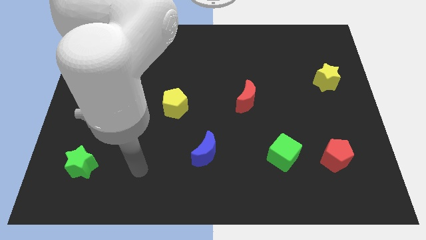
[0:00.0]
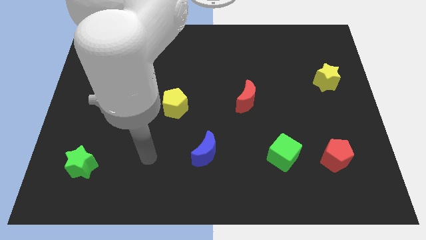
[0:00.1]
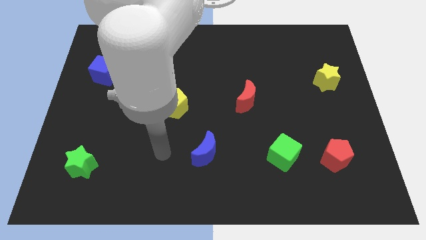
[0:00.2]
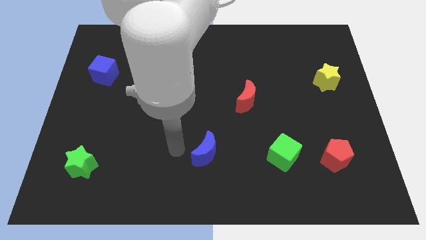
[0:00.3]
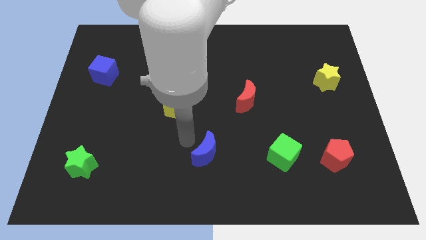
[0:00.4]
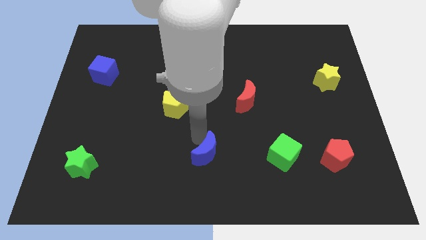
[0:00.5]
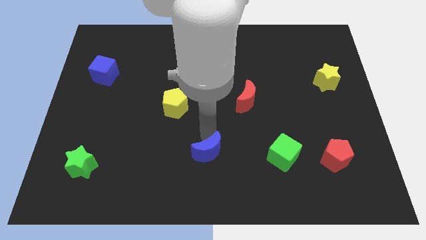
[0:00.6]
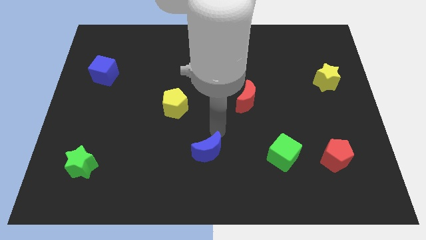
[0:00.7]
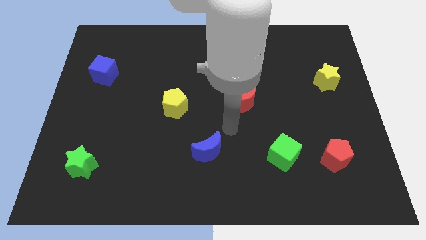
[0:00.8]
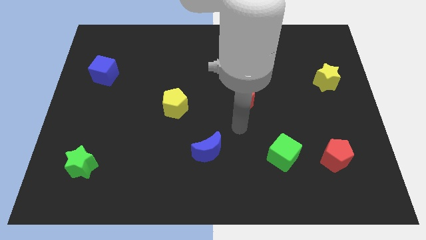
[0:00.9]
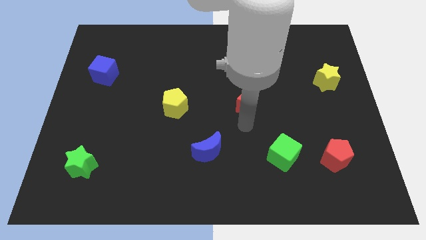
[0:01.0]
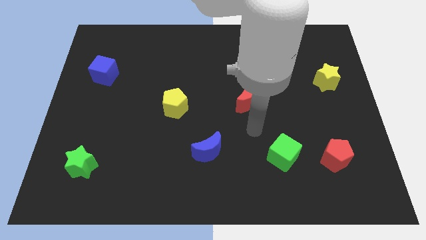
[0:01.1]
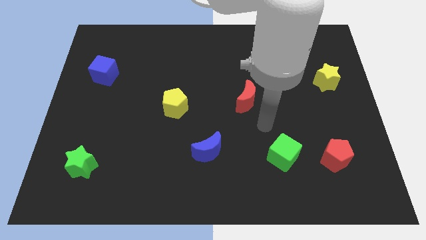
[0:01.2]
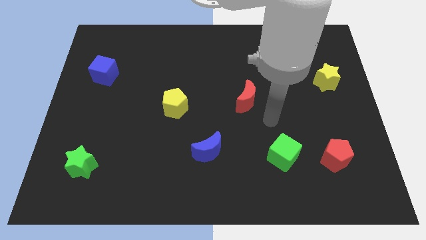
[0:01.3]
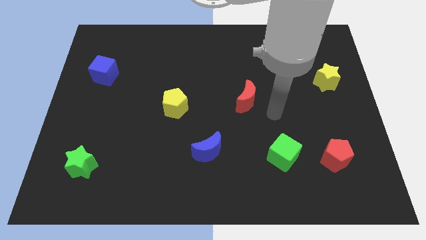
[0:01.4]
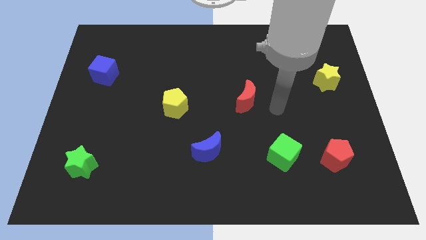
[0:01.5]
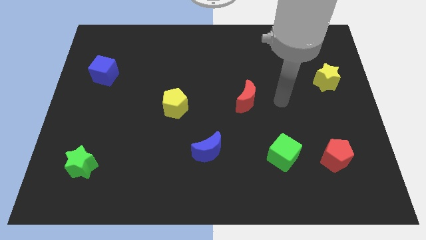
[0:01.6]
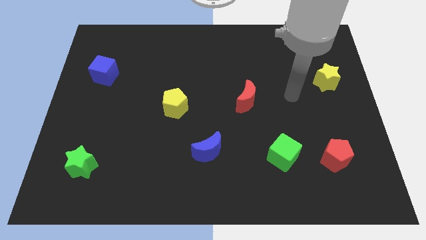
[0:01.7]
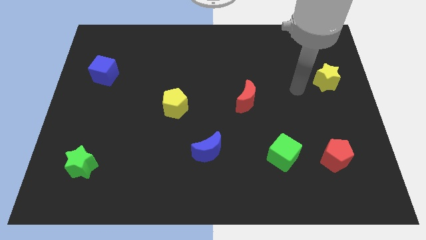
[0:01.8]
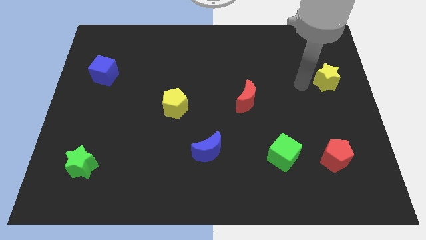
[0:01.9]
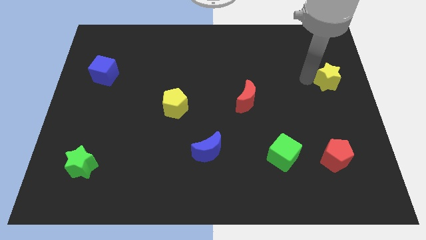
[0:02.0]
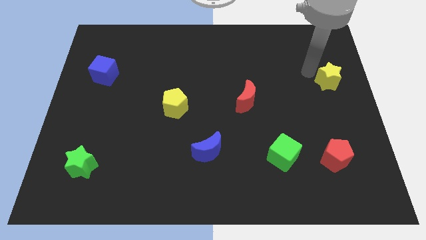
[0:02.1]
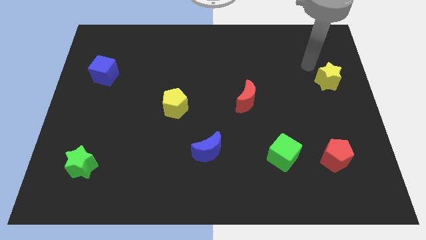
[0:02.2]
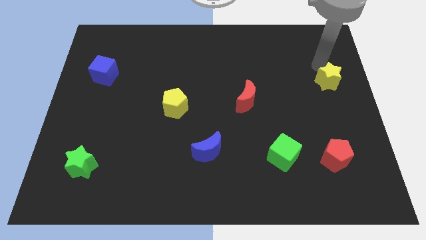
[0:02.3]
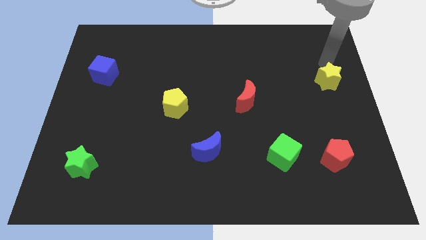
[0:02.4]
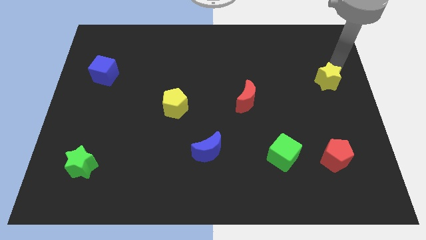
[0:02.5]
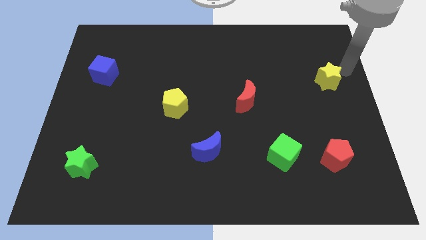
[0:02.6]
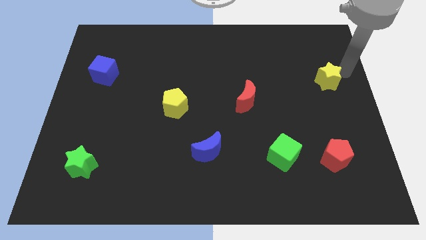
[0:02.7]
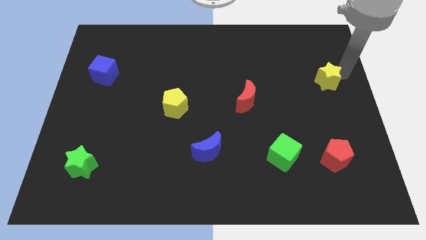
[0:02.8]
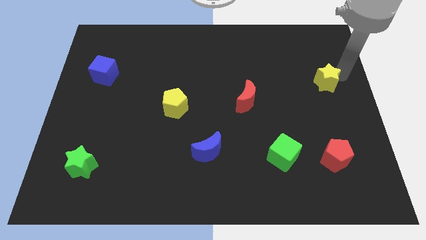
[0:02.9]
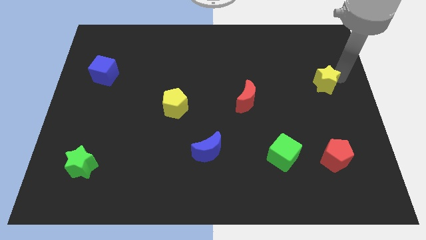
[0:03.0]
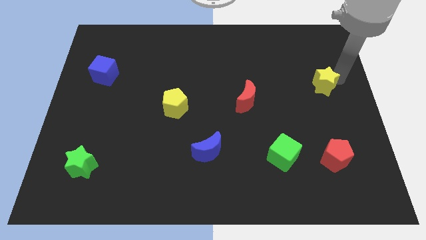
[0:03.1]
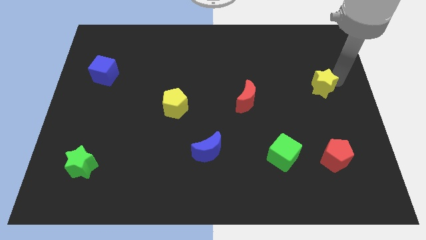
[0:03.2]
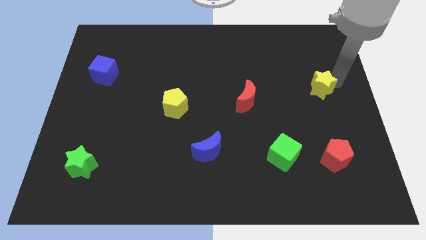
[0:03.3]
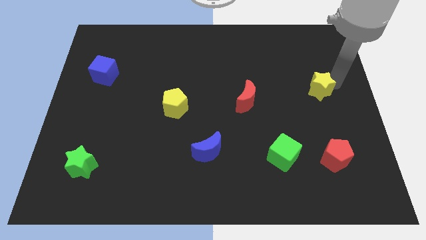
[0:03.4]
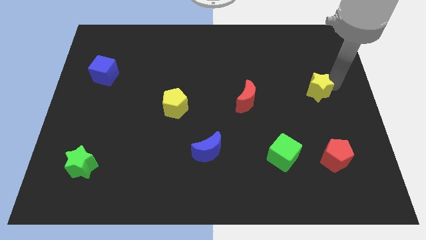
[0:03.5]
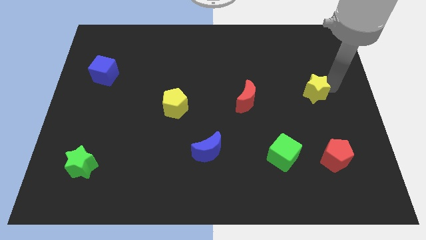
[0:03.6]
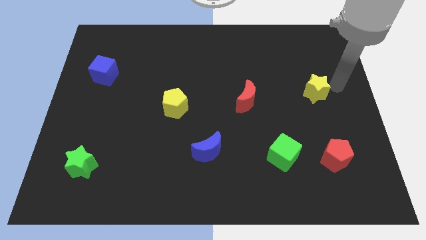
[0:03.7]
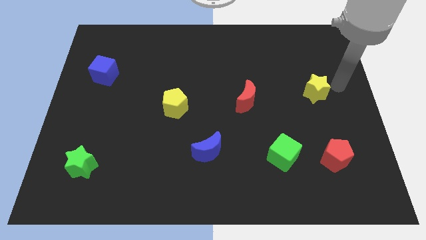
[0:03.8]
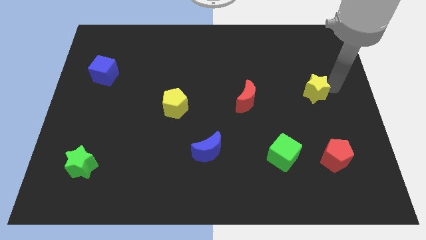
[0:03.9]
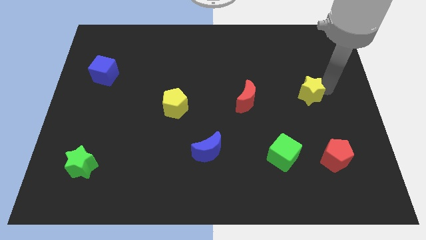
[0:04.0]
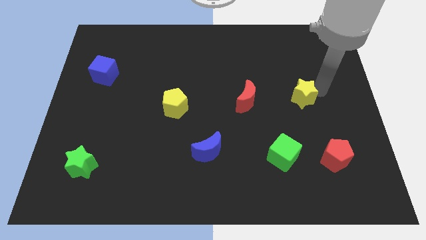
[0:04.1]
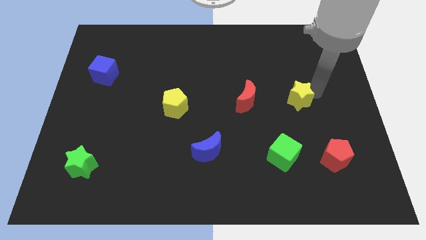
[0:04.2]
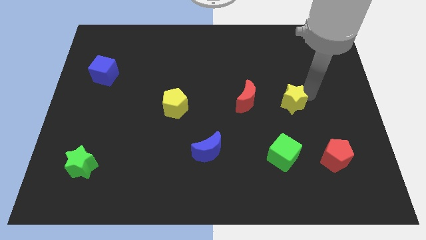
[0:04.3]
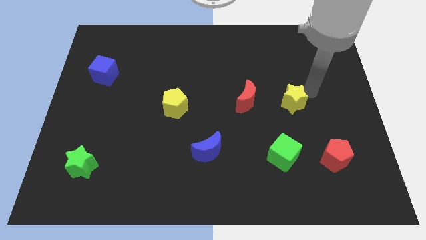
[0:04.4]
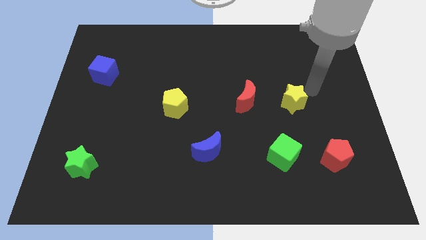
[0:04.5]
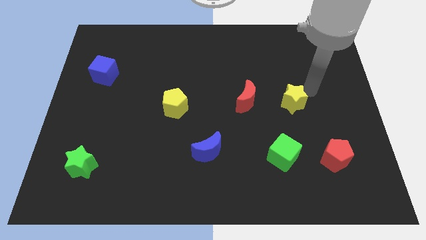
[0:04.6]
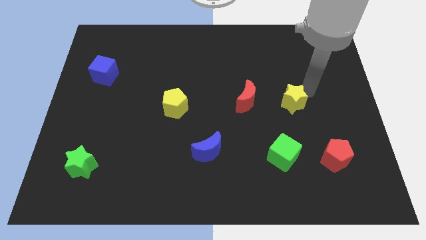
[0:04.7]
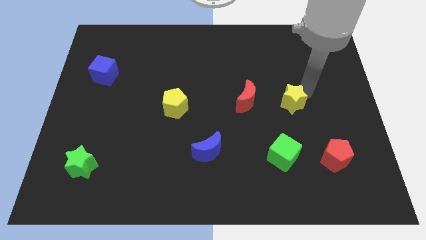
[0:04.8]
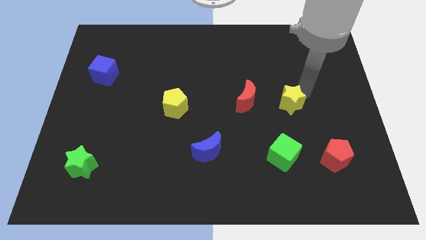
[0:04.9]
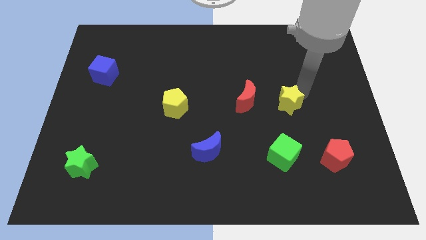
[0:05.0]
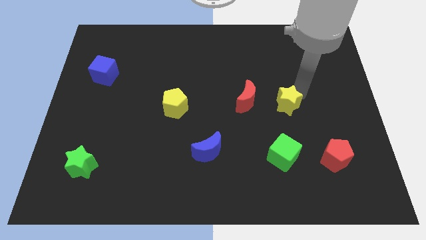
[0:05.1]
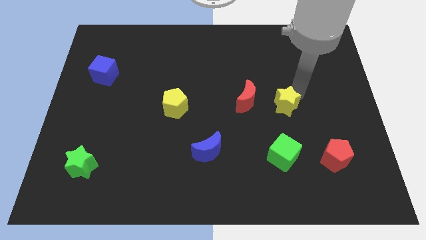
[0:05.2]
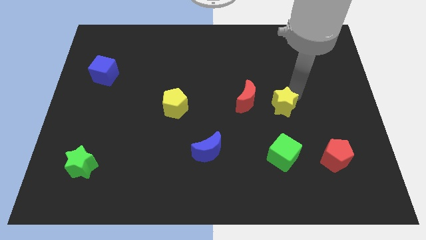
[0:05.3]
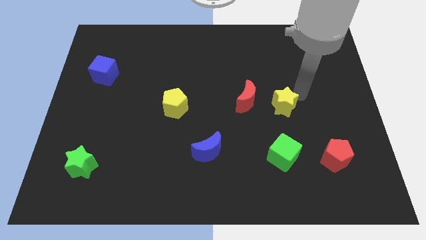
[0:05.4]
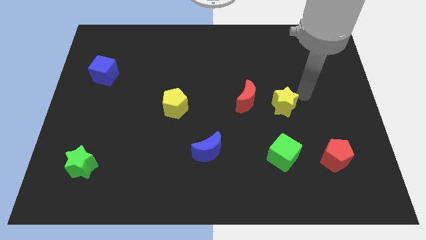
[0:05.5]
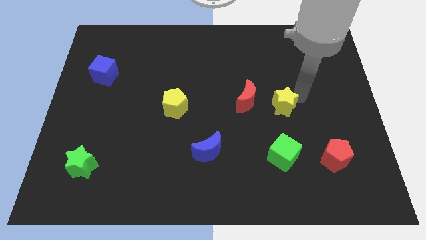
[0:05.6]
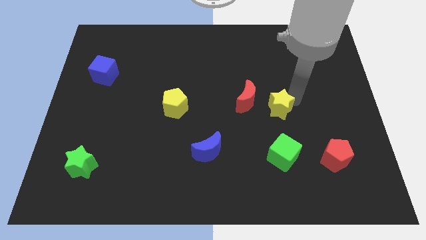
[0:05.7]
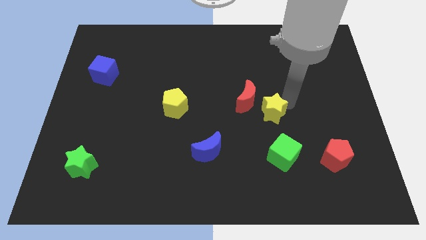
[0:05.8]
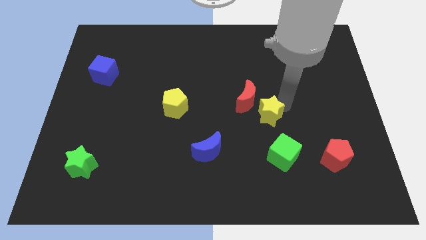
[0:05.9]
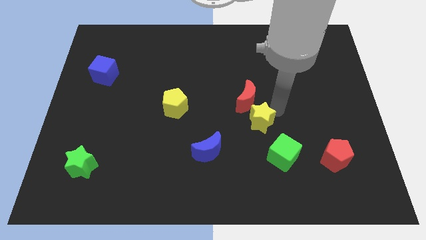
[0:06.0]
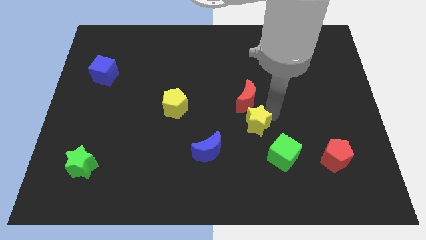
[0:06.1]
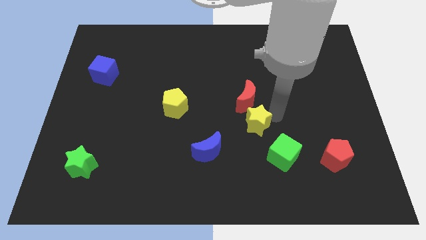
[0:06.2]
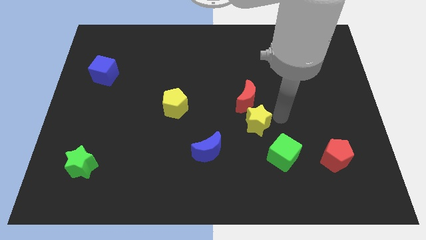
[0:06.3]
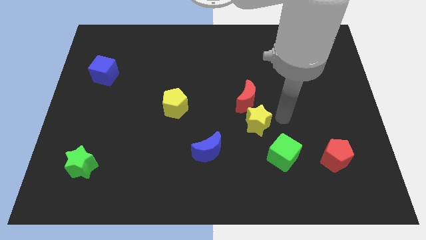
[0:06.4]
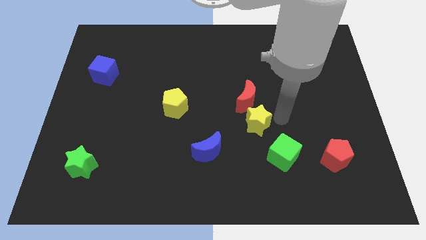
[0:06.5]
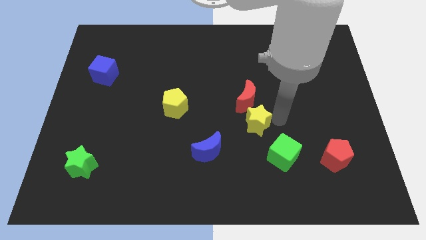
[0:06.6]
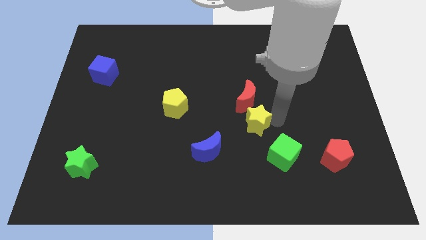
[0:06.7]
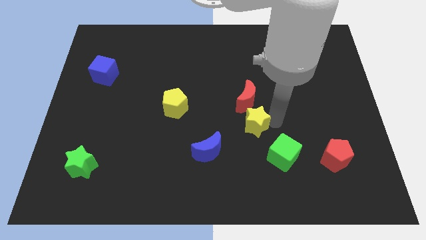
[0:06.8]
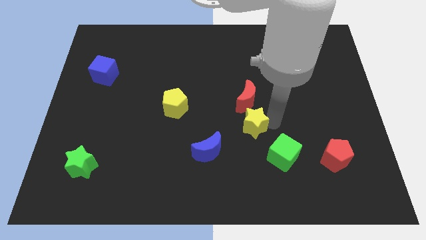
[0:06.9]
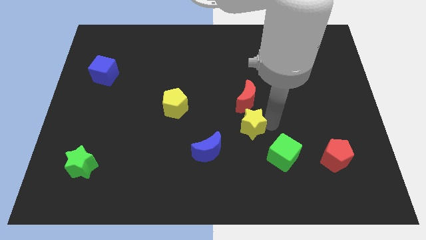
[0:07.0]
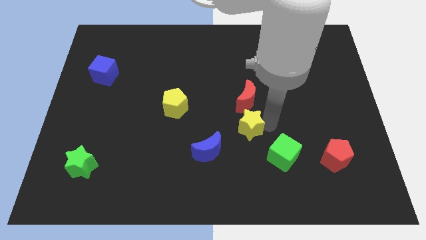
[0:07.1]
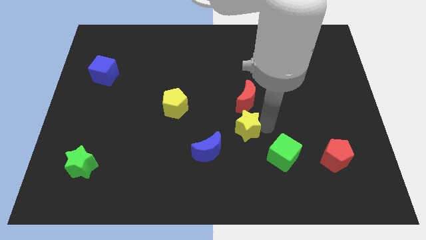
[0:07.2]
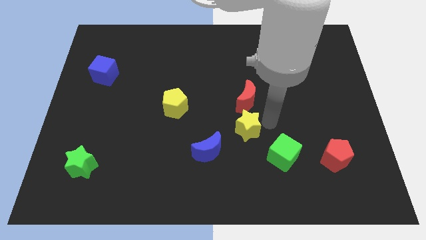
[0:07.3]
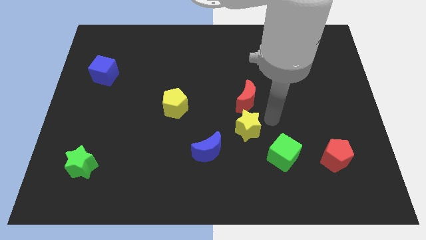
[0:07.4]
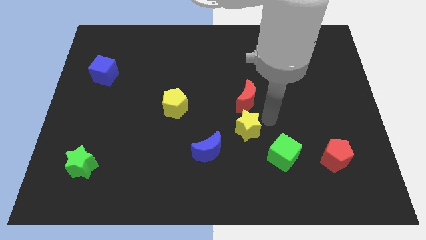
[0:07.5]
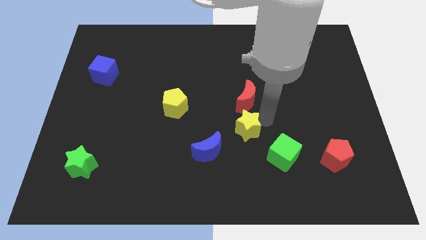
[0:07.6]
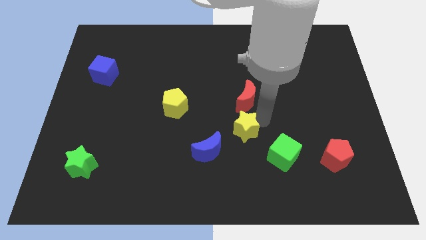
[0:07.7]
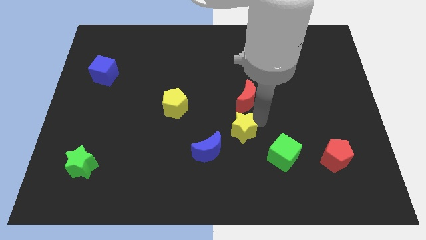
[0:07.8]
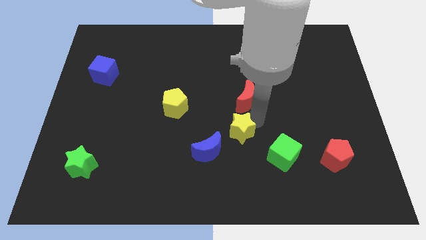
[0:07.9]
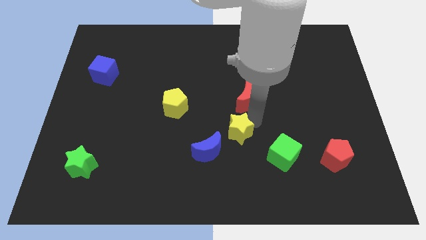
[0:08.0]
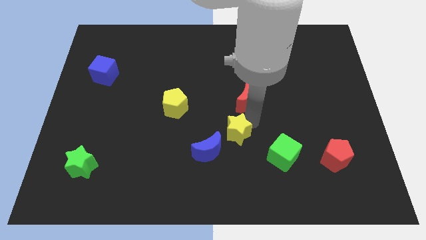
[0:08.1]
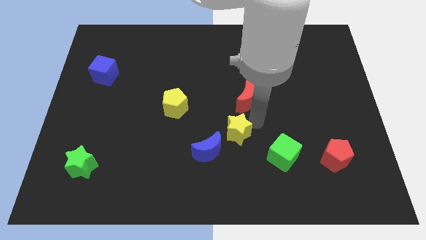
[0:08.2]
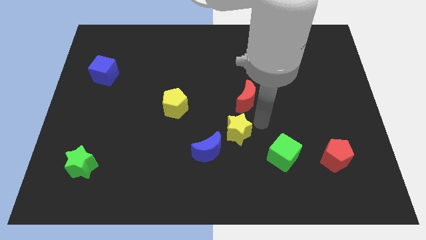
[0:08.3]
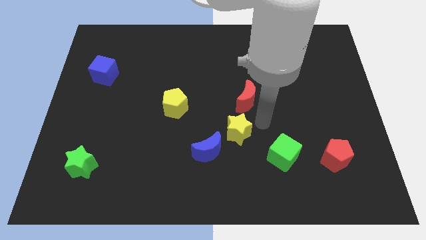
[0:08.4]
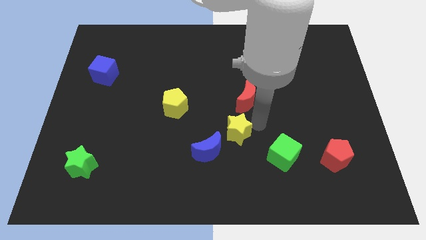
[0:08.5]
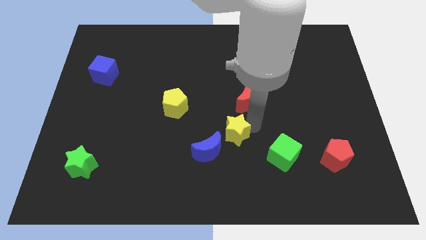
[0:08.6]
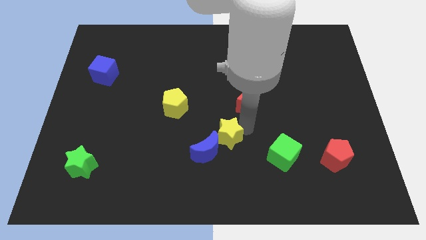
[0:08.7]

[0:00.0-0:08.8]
move the yellow star to the blue moon
